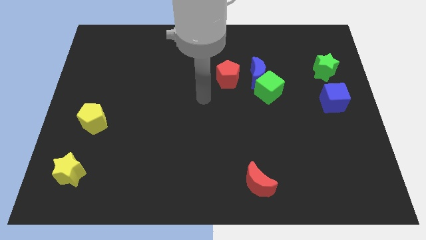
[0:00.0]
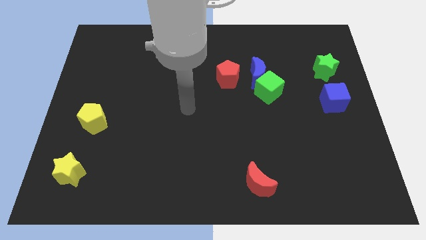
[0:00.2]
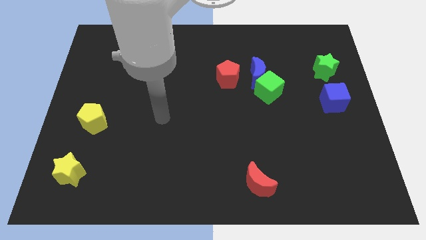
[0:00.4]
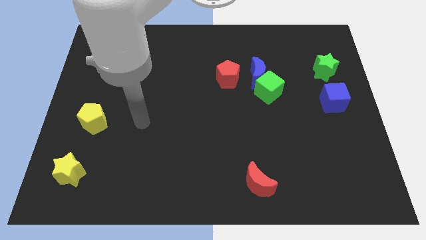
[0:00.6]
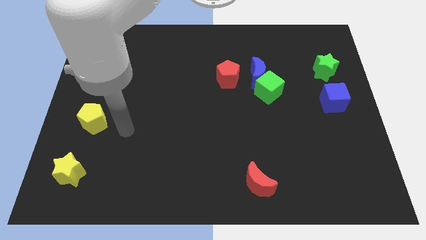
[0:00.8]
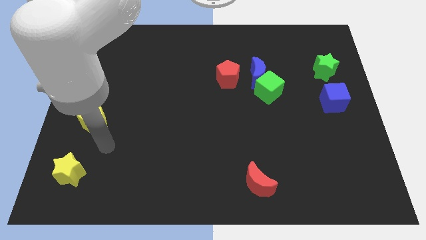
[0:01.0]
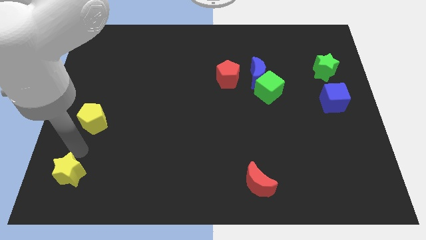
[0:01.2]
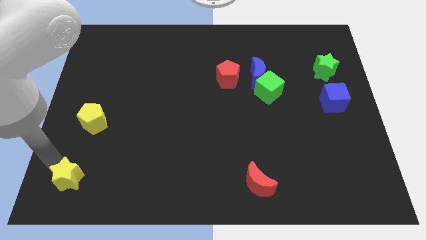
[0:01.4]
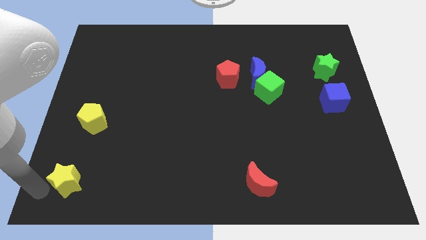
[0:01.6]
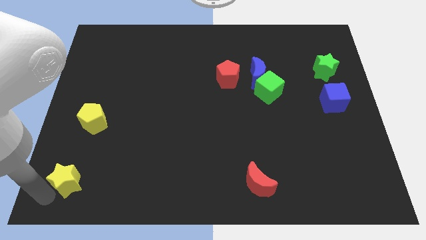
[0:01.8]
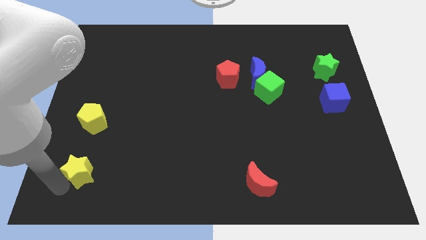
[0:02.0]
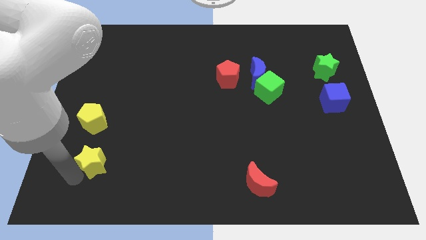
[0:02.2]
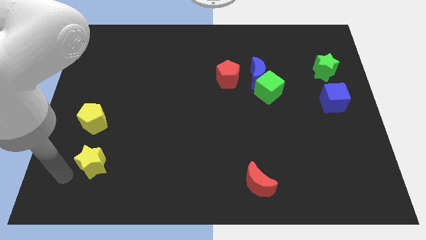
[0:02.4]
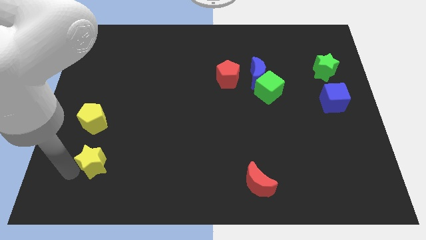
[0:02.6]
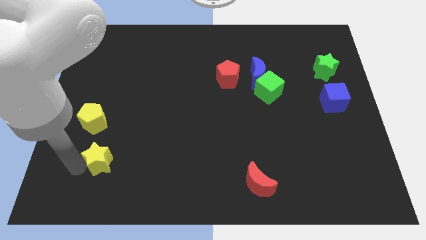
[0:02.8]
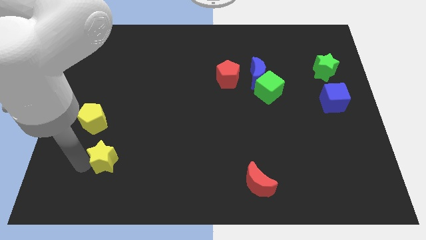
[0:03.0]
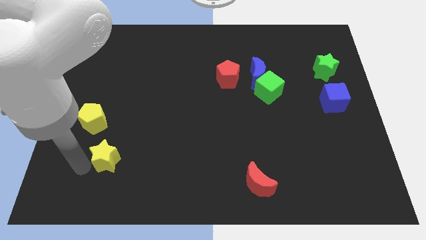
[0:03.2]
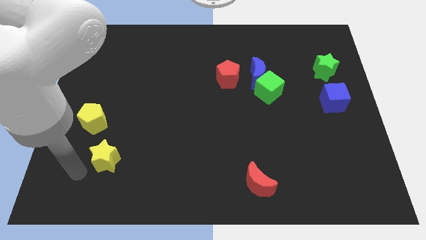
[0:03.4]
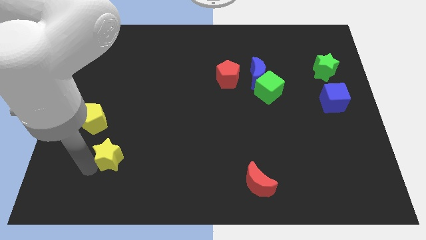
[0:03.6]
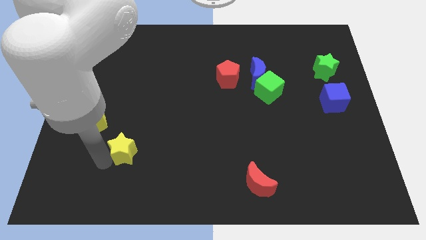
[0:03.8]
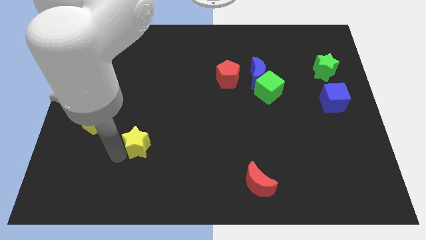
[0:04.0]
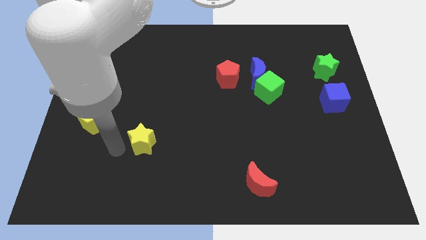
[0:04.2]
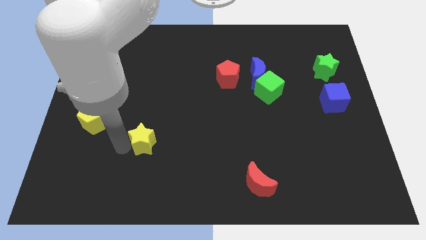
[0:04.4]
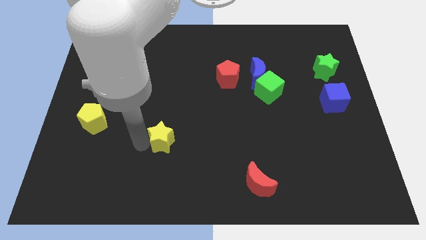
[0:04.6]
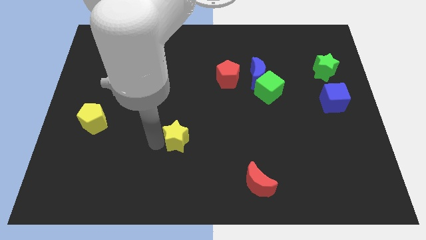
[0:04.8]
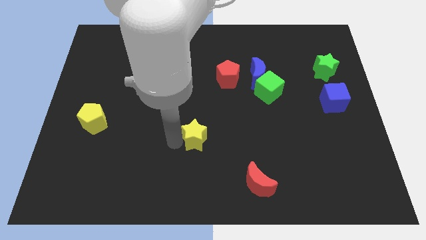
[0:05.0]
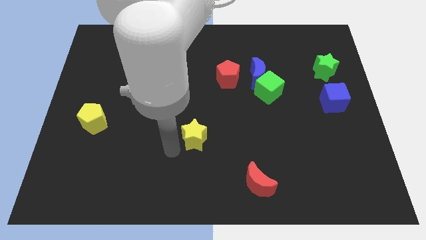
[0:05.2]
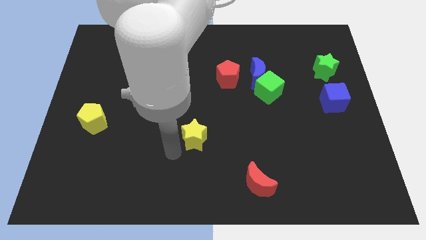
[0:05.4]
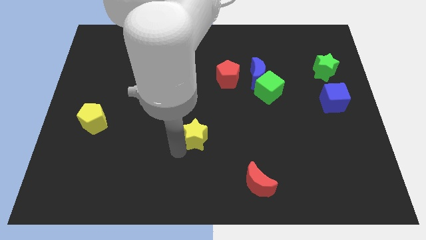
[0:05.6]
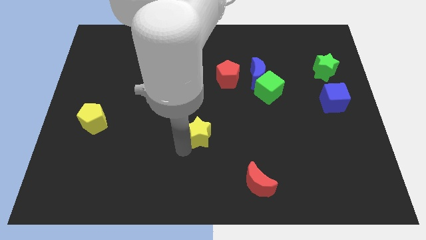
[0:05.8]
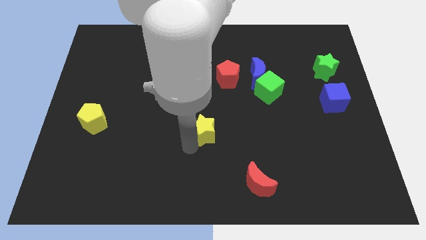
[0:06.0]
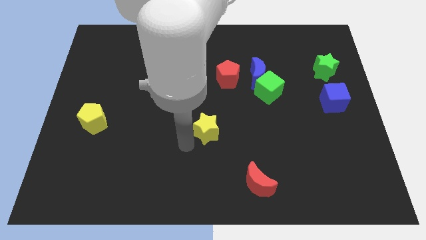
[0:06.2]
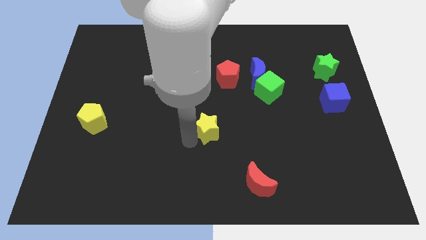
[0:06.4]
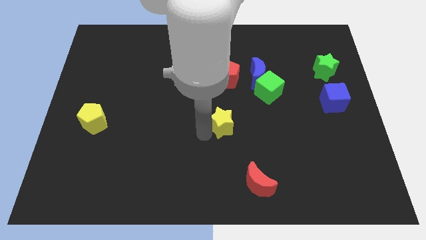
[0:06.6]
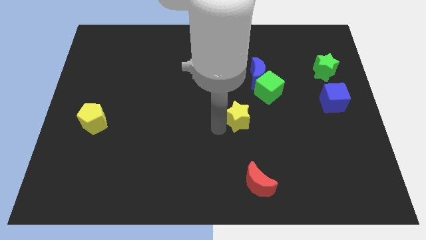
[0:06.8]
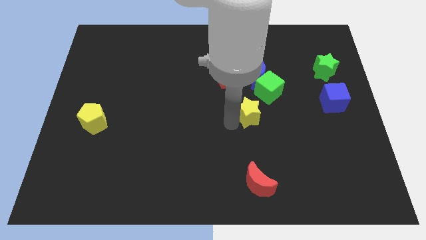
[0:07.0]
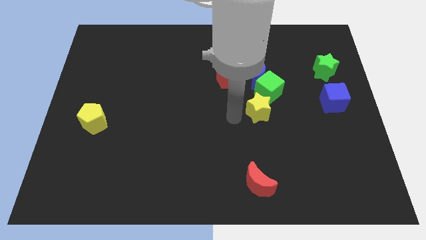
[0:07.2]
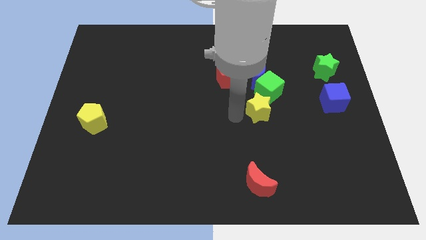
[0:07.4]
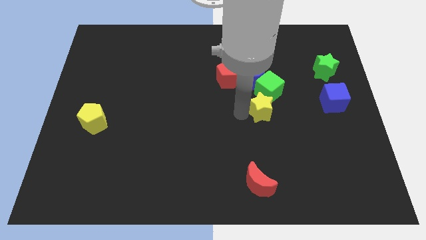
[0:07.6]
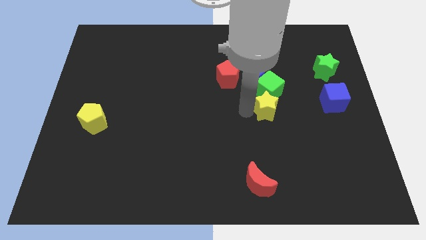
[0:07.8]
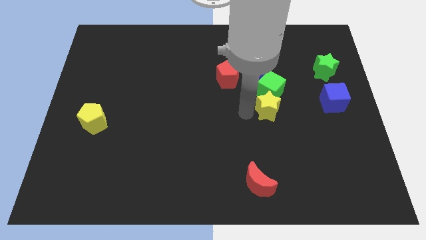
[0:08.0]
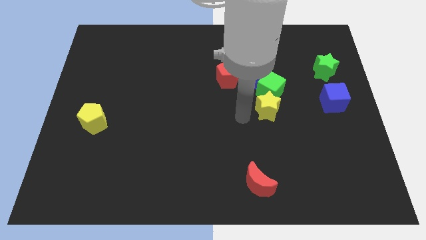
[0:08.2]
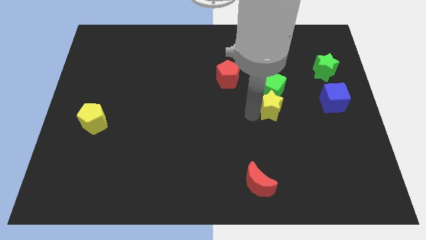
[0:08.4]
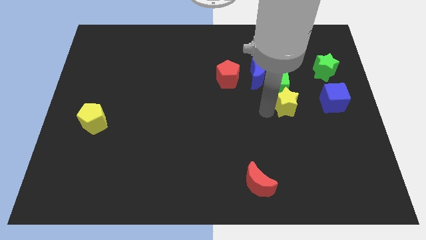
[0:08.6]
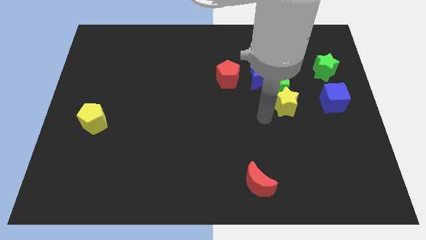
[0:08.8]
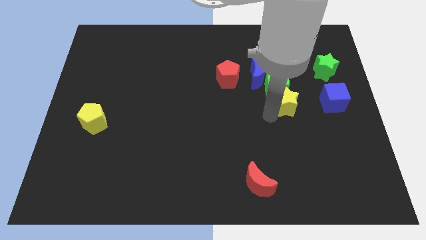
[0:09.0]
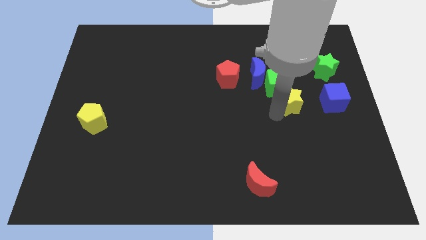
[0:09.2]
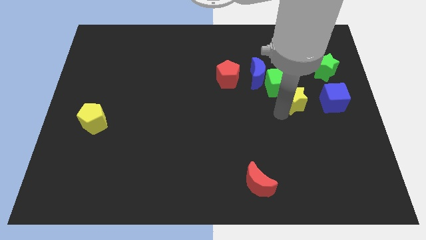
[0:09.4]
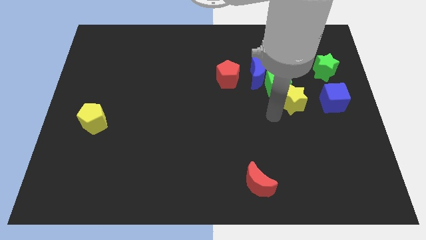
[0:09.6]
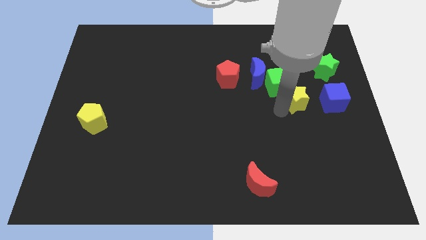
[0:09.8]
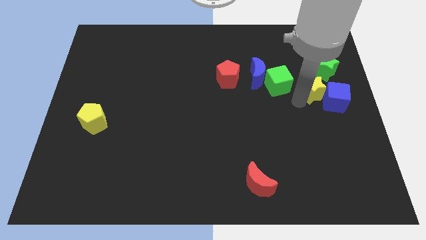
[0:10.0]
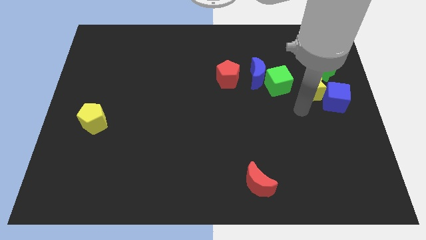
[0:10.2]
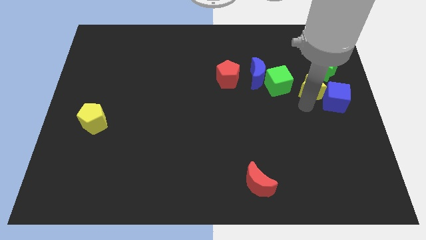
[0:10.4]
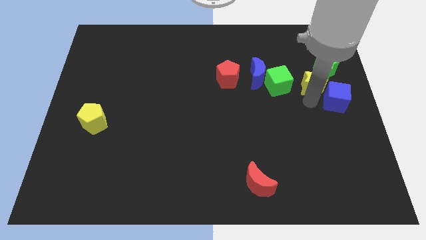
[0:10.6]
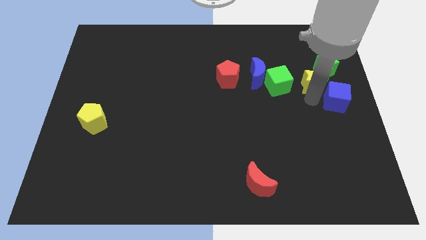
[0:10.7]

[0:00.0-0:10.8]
slide the yellow star towards the green star

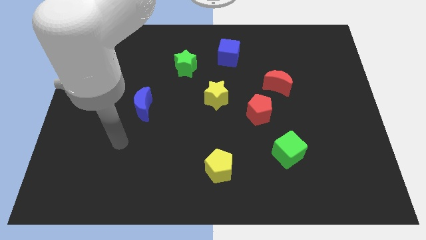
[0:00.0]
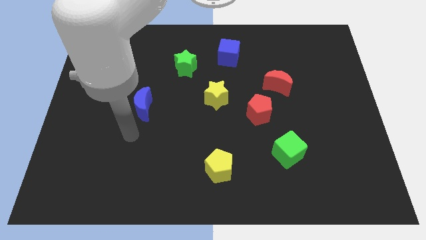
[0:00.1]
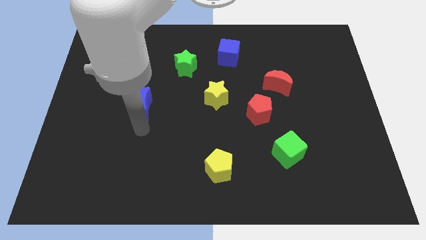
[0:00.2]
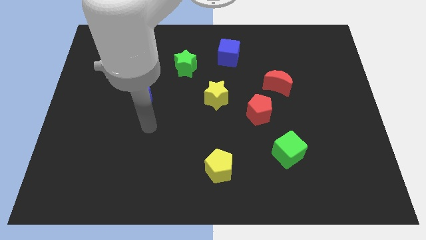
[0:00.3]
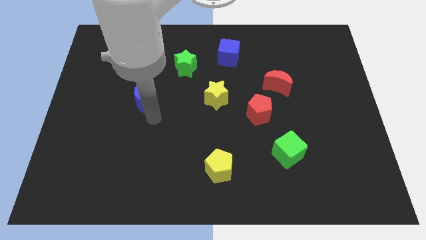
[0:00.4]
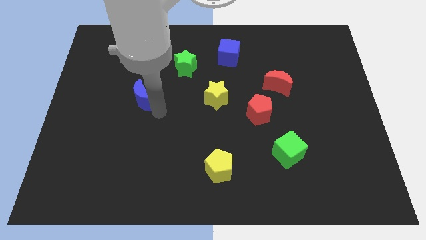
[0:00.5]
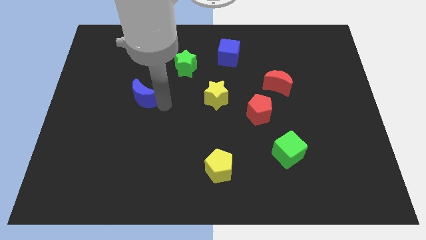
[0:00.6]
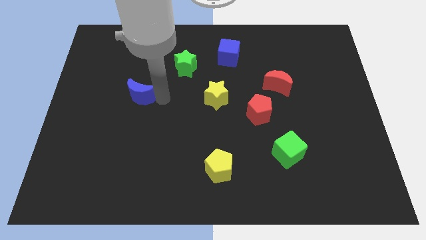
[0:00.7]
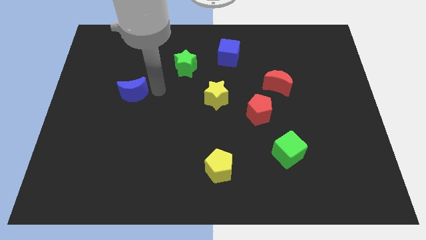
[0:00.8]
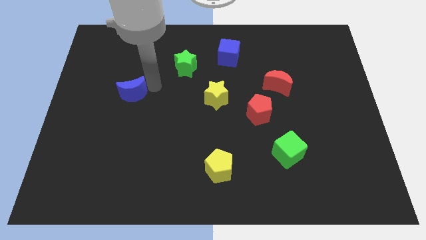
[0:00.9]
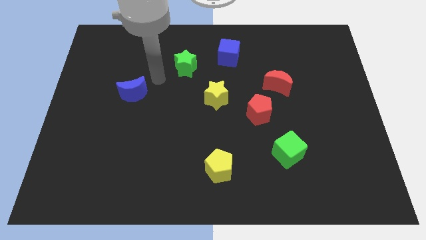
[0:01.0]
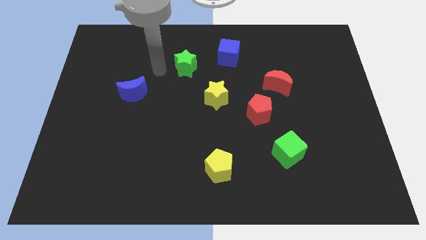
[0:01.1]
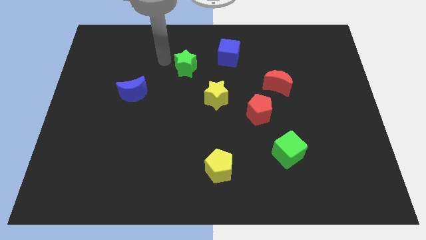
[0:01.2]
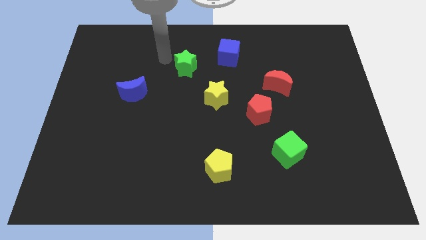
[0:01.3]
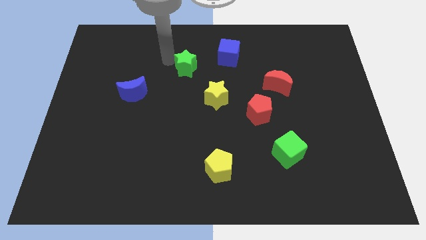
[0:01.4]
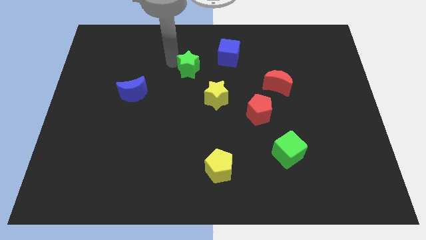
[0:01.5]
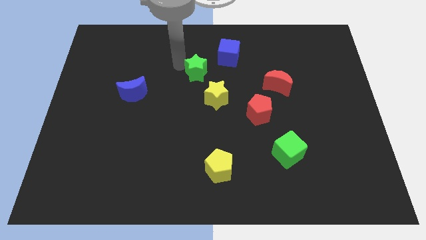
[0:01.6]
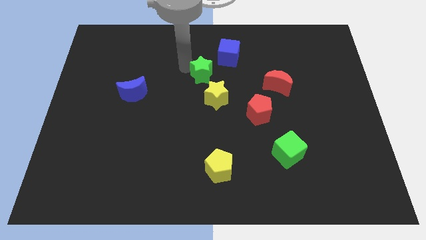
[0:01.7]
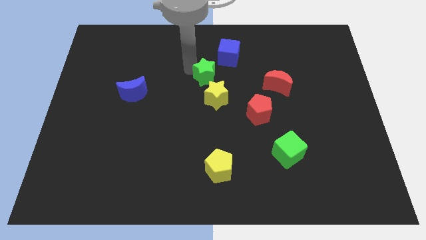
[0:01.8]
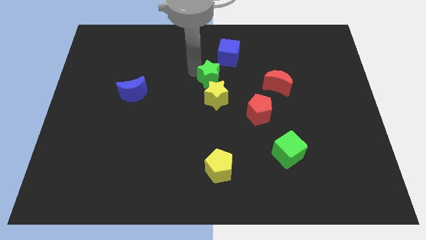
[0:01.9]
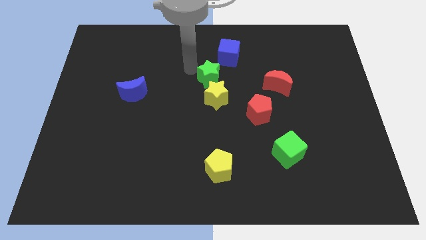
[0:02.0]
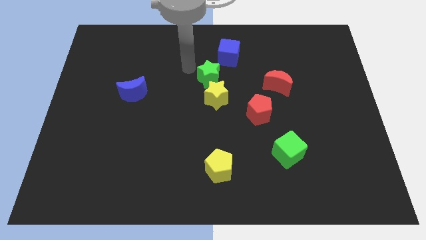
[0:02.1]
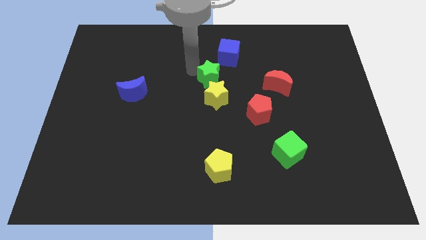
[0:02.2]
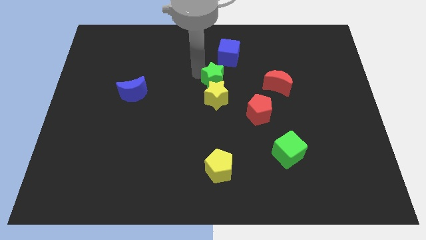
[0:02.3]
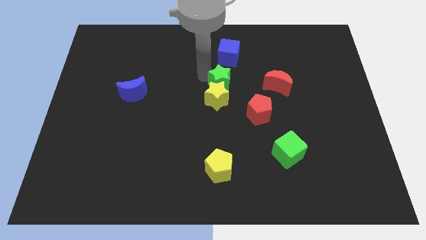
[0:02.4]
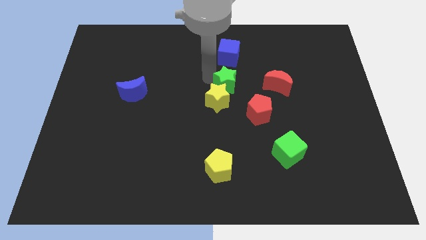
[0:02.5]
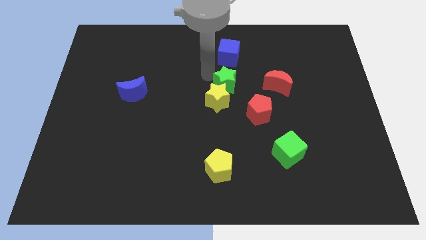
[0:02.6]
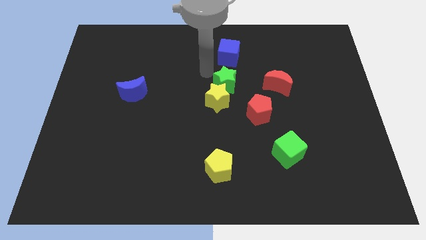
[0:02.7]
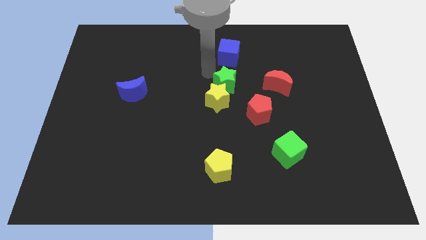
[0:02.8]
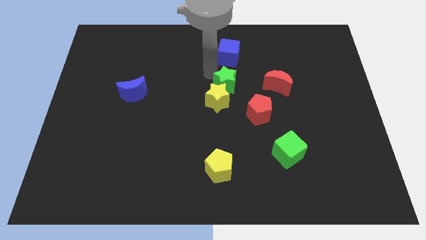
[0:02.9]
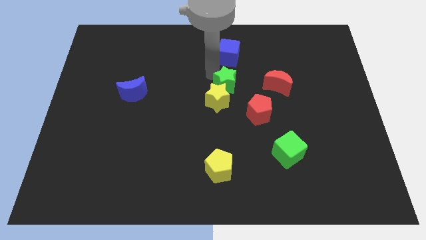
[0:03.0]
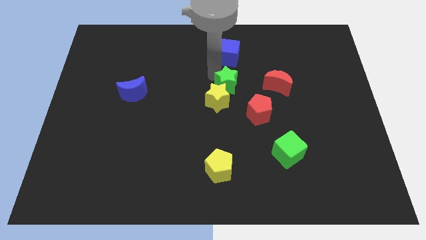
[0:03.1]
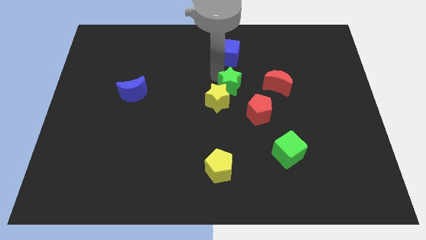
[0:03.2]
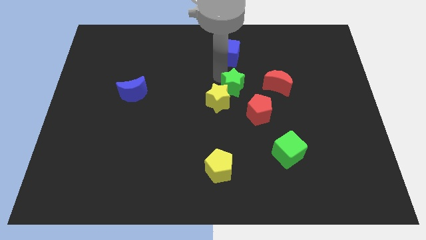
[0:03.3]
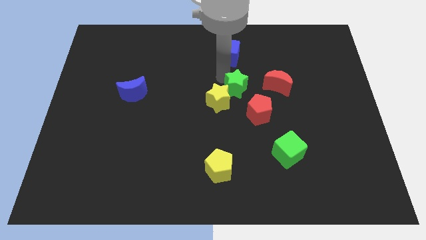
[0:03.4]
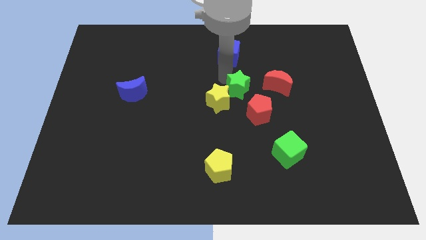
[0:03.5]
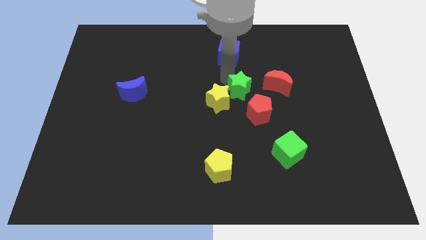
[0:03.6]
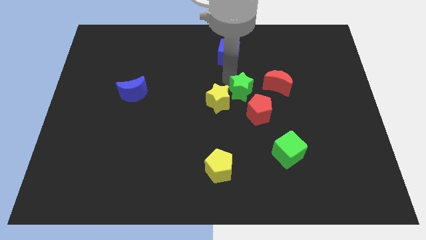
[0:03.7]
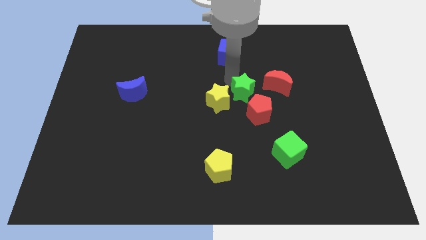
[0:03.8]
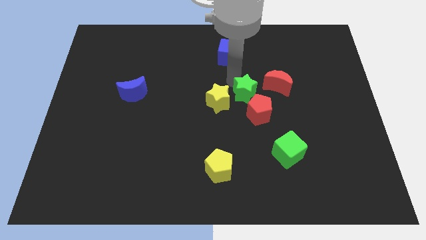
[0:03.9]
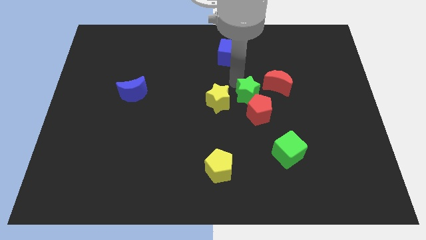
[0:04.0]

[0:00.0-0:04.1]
push the green star towards the red pentagon
